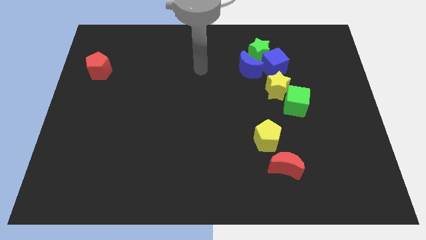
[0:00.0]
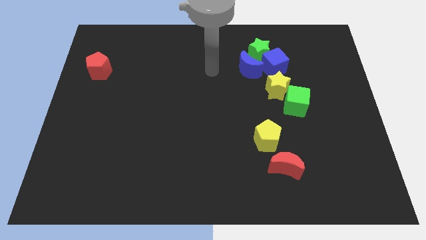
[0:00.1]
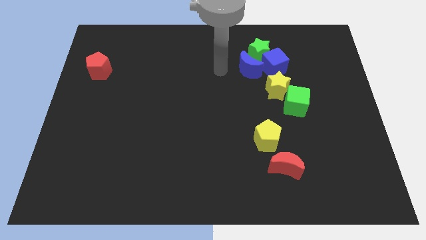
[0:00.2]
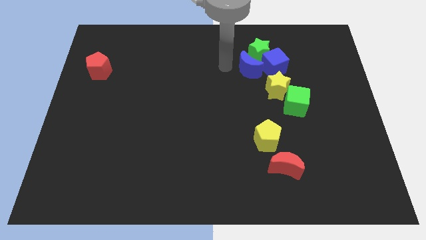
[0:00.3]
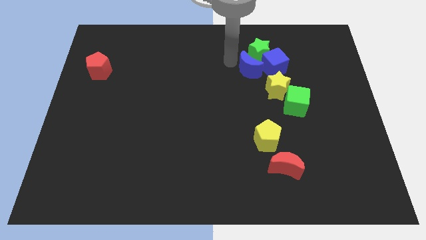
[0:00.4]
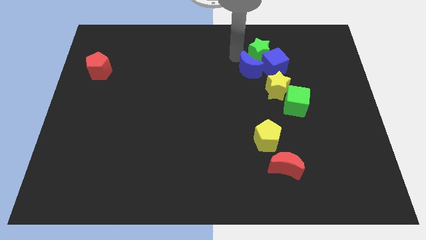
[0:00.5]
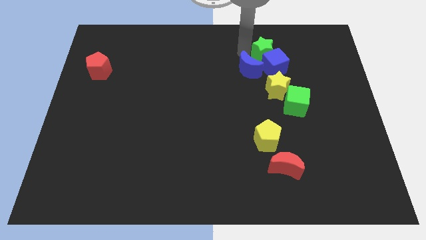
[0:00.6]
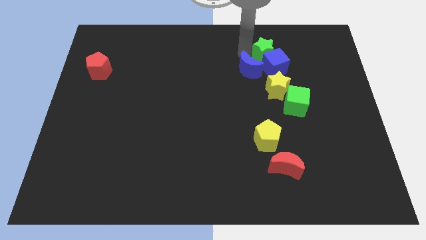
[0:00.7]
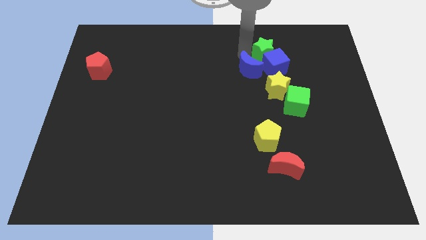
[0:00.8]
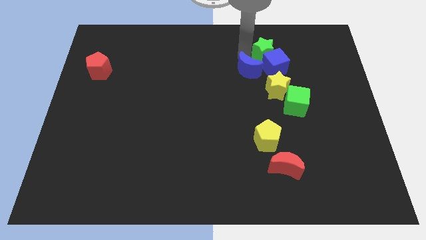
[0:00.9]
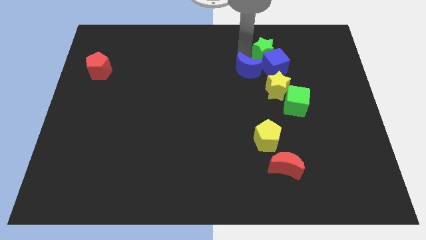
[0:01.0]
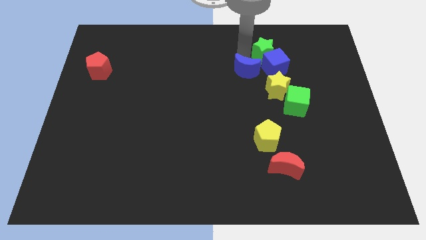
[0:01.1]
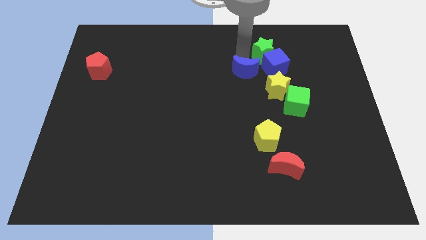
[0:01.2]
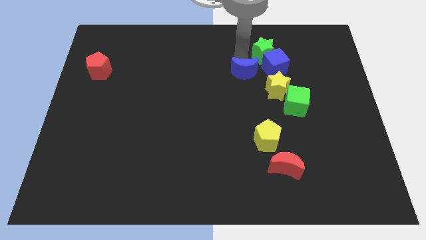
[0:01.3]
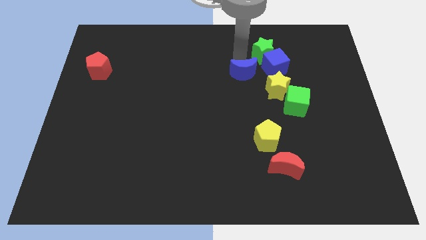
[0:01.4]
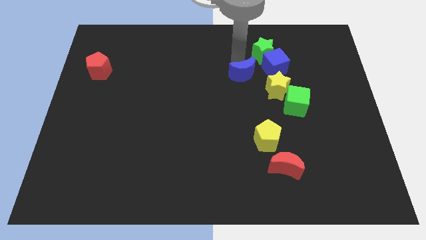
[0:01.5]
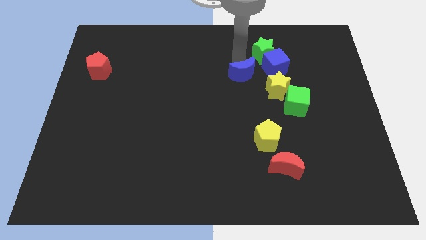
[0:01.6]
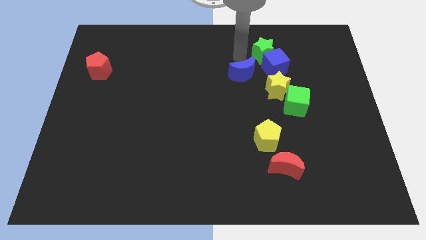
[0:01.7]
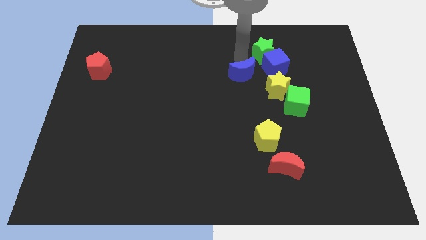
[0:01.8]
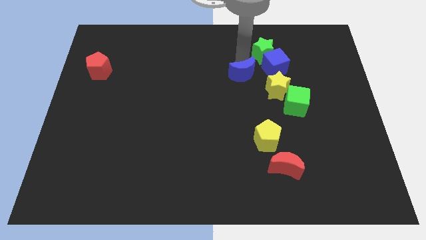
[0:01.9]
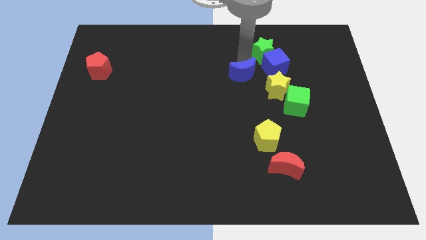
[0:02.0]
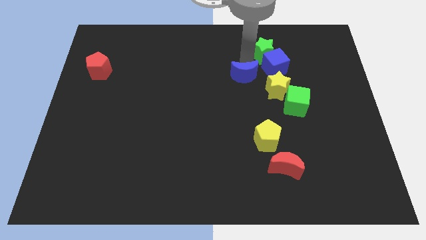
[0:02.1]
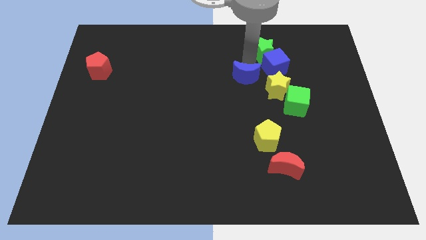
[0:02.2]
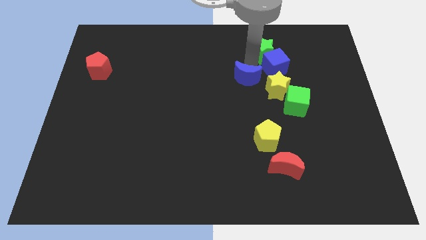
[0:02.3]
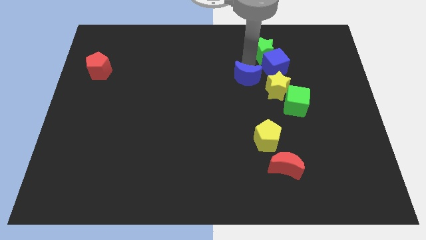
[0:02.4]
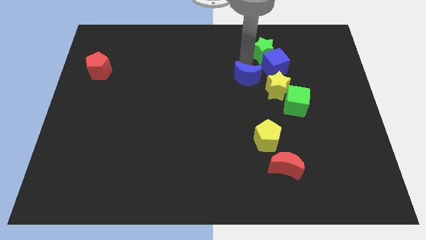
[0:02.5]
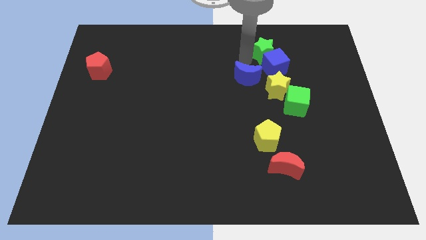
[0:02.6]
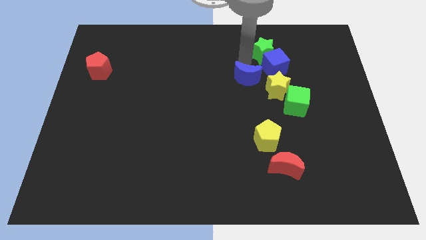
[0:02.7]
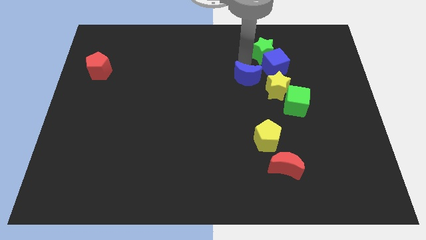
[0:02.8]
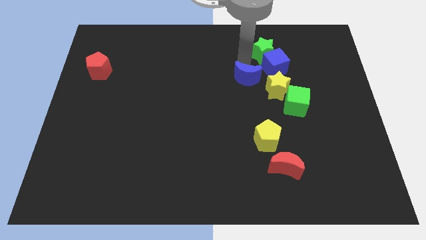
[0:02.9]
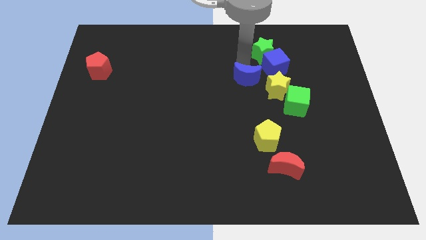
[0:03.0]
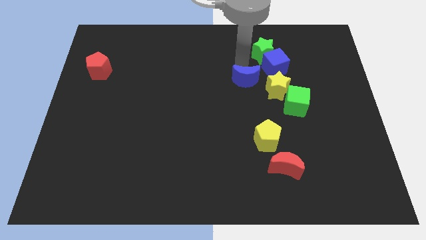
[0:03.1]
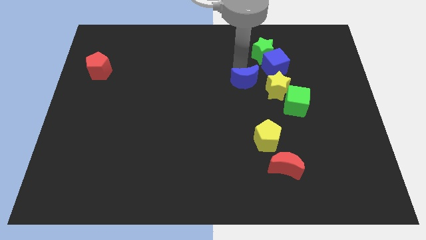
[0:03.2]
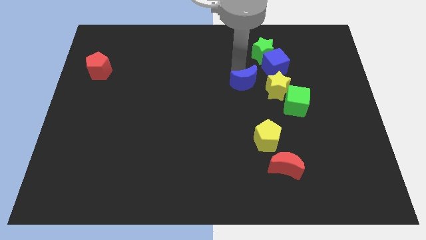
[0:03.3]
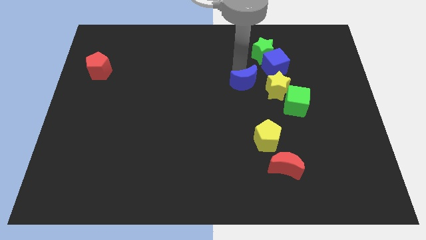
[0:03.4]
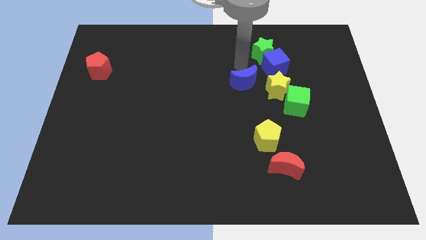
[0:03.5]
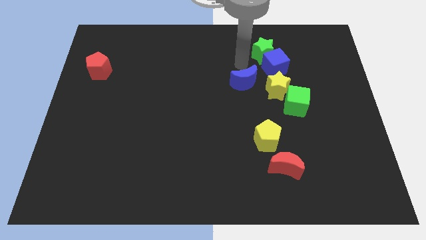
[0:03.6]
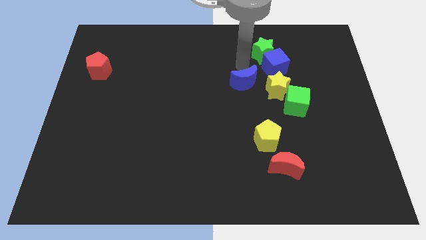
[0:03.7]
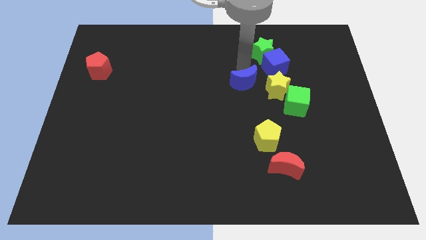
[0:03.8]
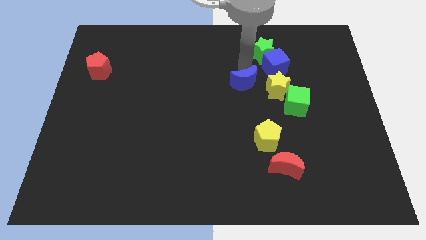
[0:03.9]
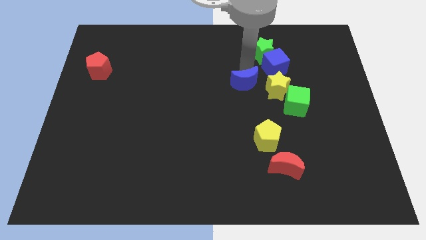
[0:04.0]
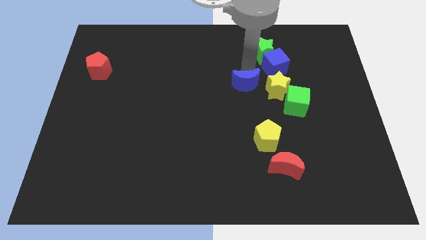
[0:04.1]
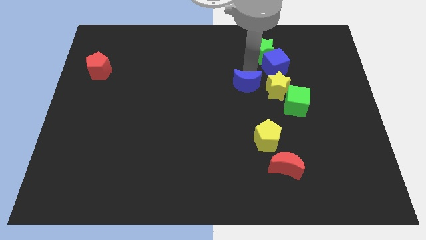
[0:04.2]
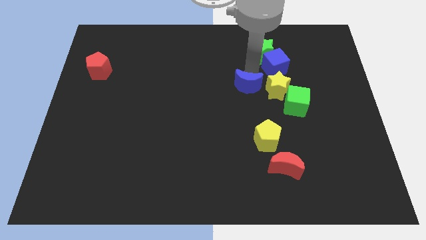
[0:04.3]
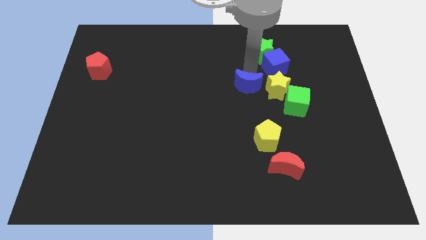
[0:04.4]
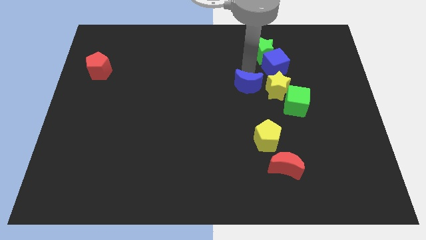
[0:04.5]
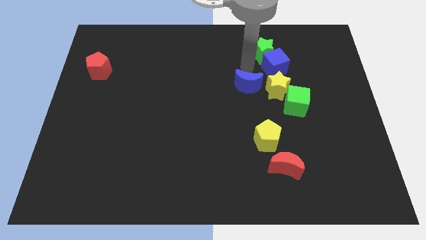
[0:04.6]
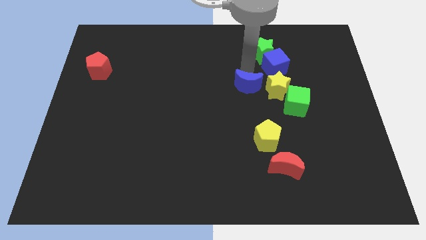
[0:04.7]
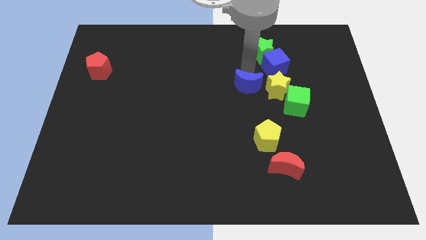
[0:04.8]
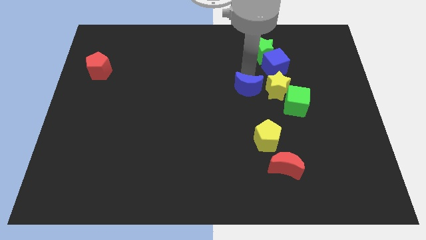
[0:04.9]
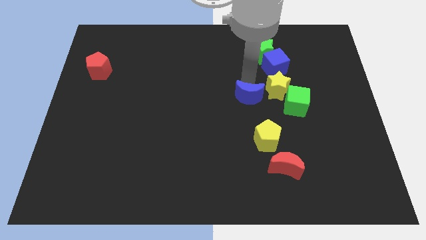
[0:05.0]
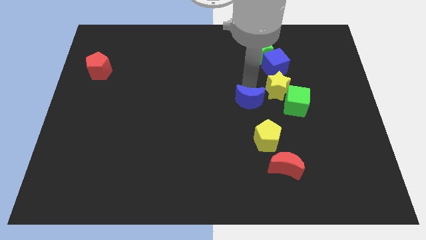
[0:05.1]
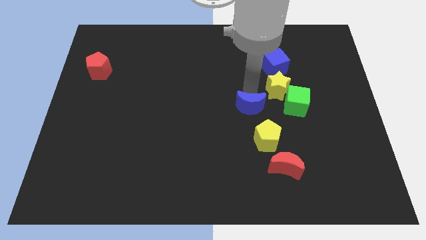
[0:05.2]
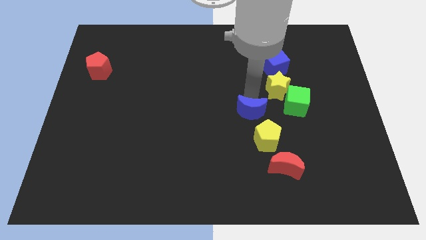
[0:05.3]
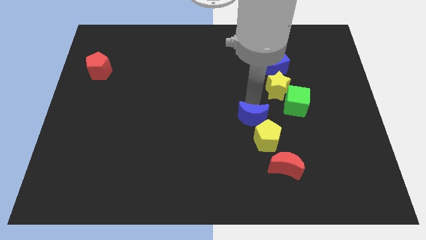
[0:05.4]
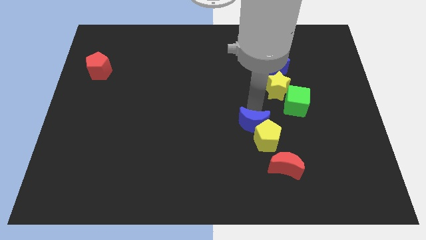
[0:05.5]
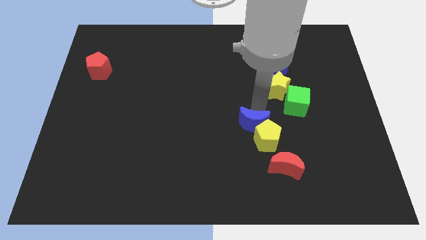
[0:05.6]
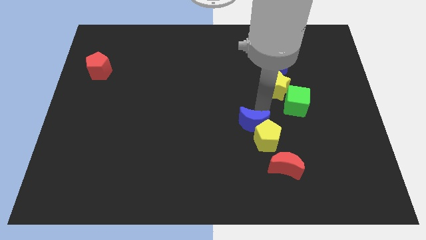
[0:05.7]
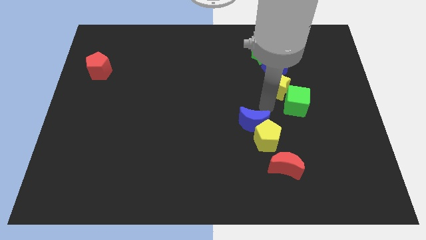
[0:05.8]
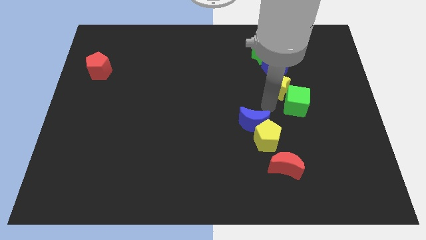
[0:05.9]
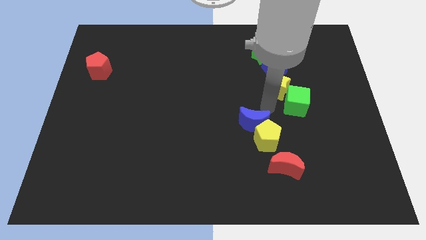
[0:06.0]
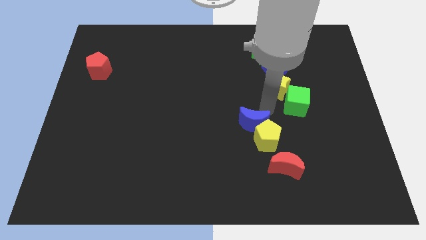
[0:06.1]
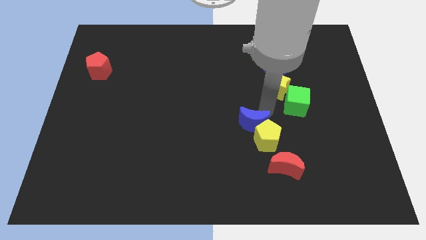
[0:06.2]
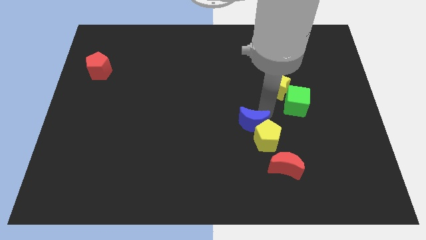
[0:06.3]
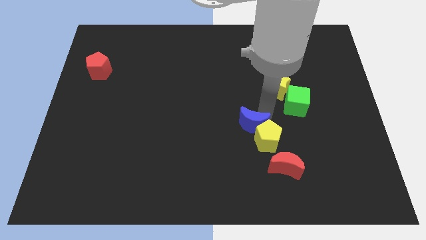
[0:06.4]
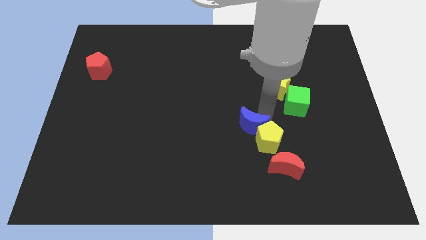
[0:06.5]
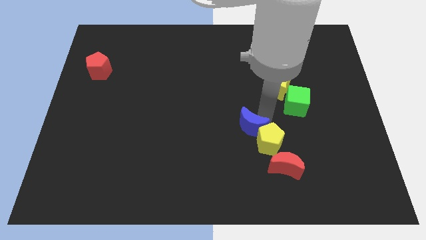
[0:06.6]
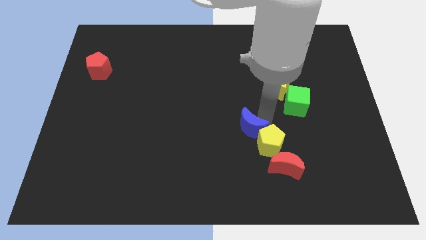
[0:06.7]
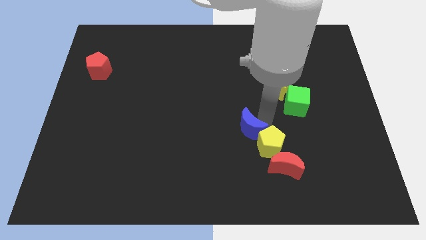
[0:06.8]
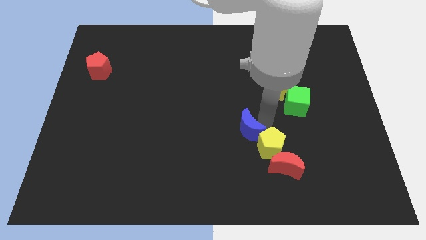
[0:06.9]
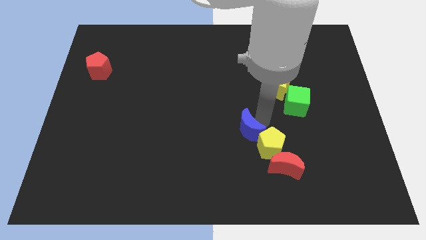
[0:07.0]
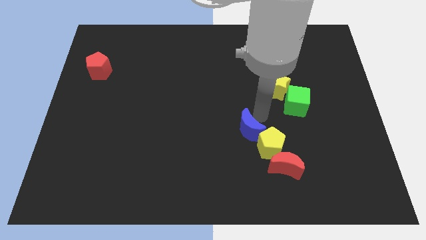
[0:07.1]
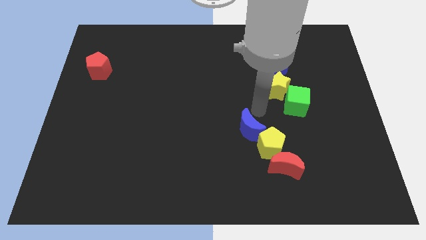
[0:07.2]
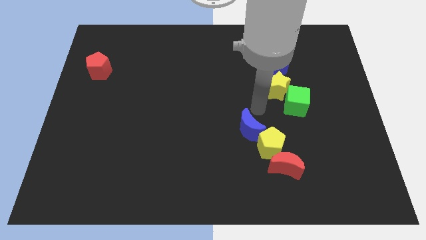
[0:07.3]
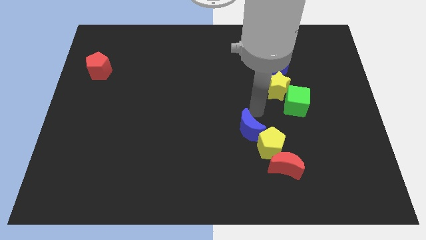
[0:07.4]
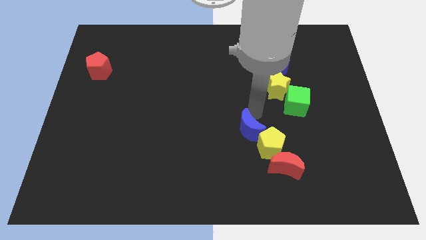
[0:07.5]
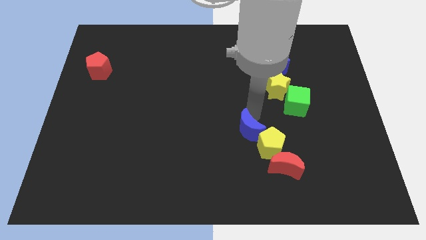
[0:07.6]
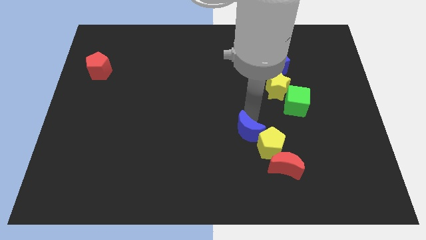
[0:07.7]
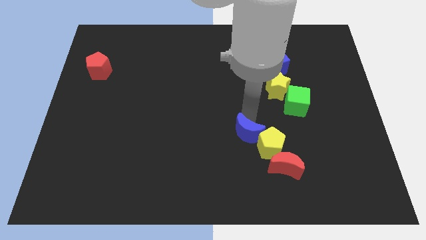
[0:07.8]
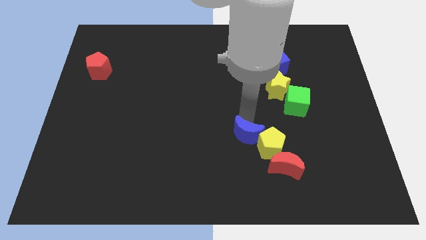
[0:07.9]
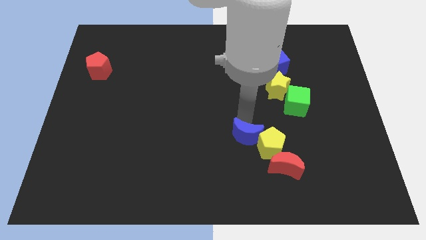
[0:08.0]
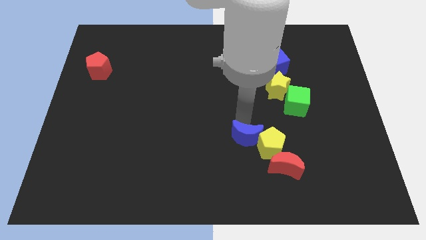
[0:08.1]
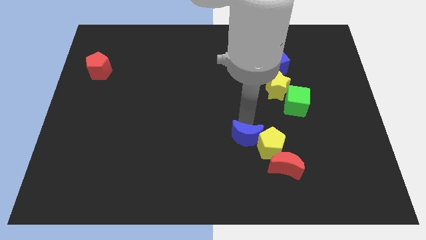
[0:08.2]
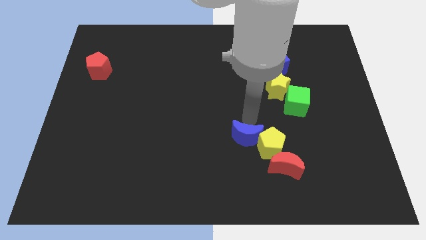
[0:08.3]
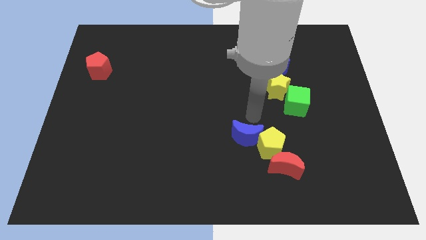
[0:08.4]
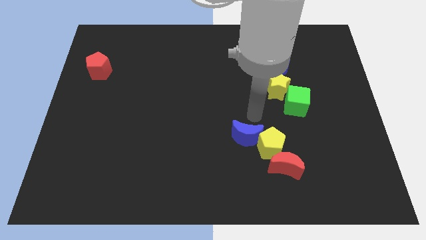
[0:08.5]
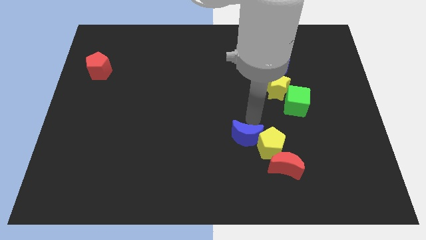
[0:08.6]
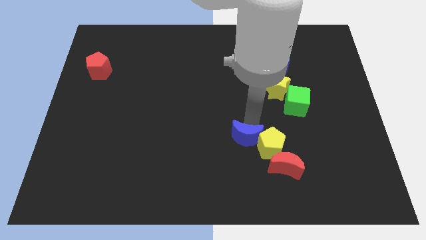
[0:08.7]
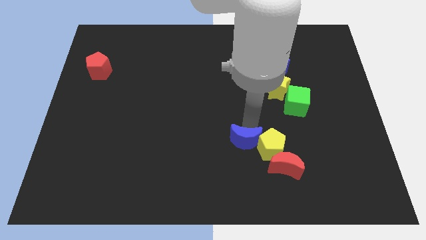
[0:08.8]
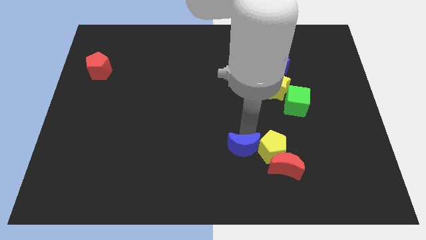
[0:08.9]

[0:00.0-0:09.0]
push the blue moon just left of the red moon
